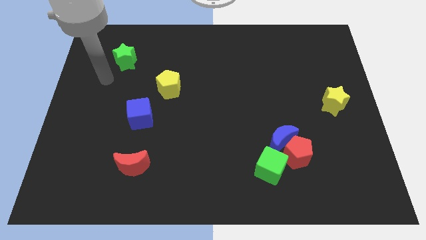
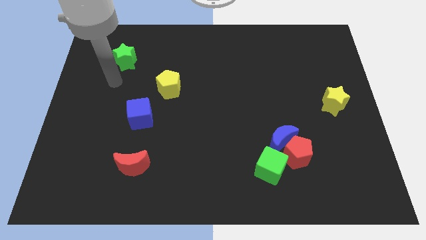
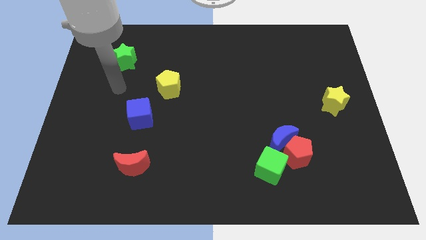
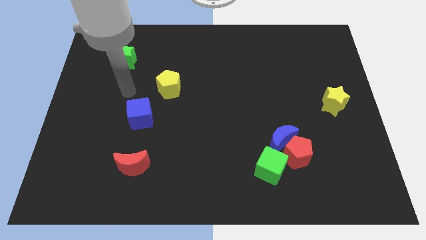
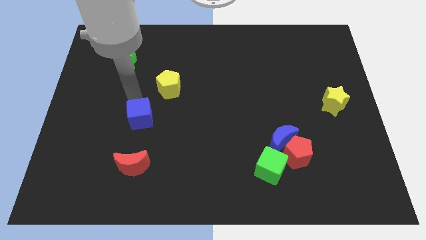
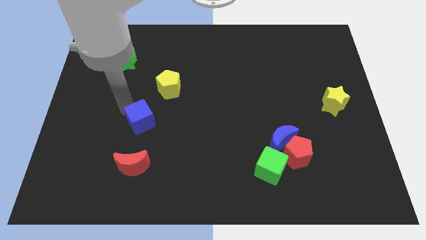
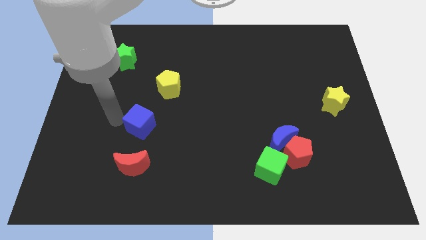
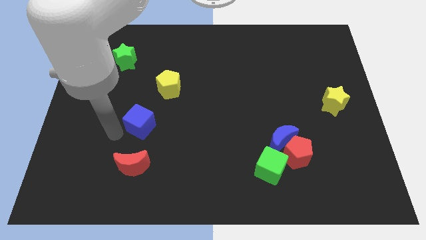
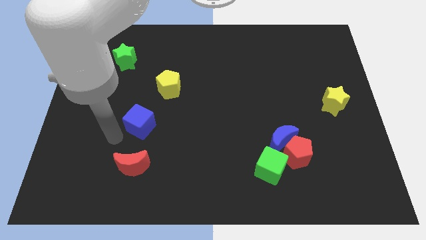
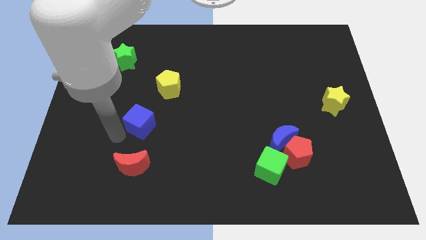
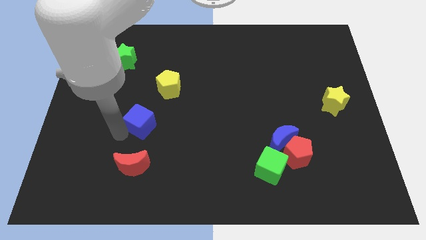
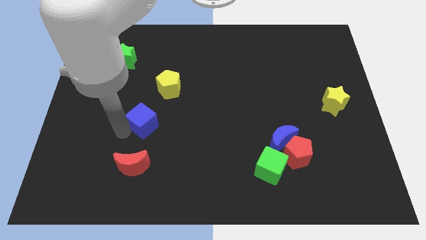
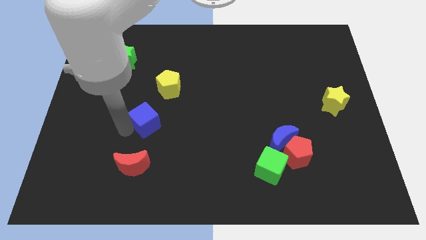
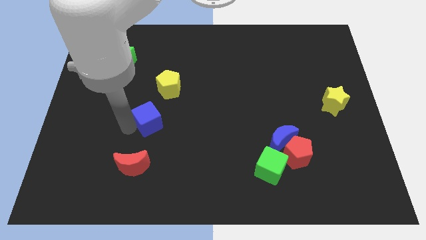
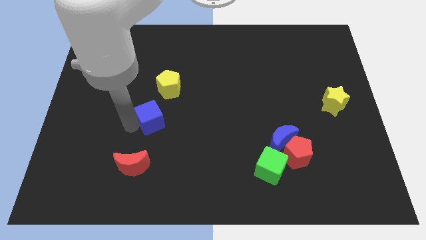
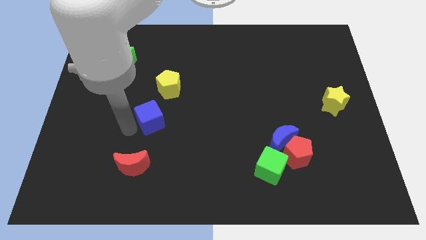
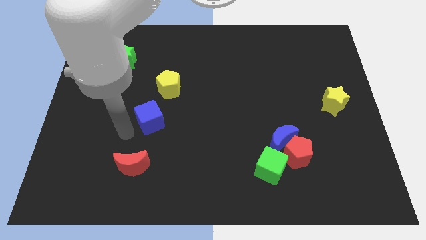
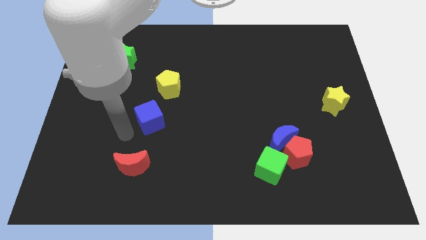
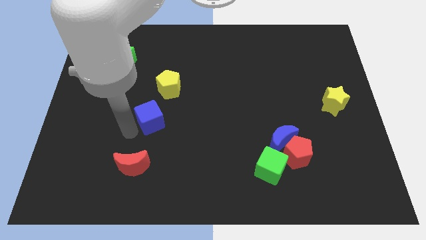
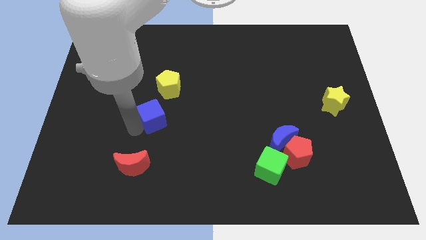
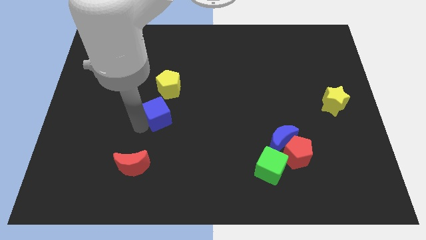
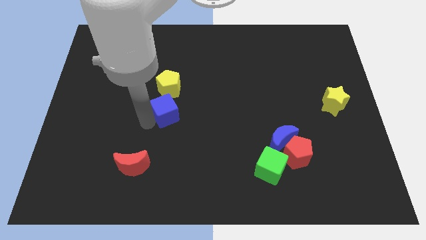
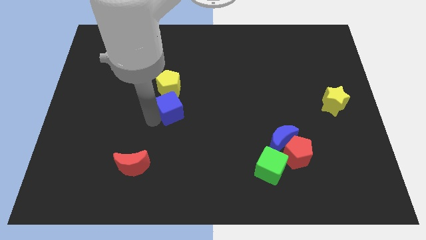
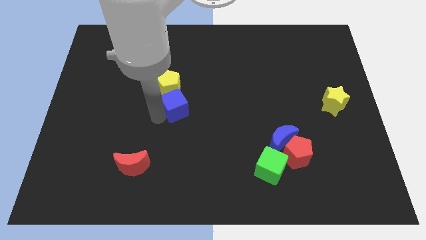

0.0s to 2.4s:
move the blue cube a little up and to the right diagonally

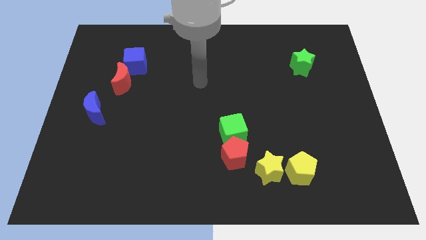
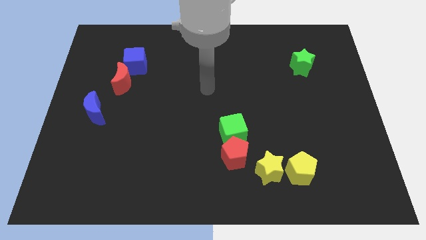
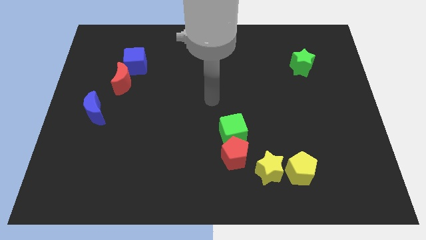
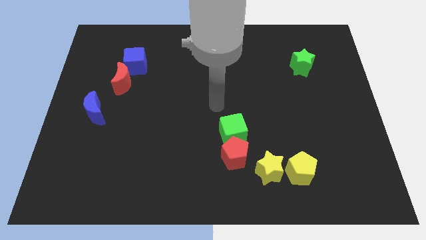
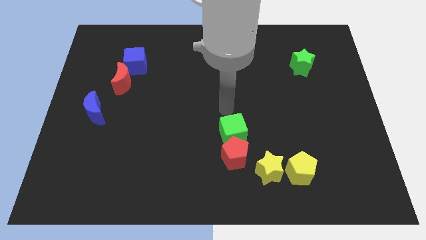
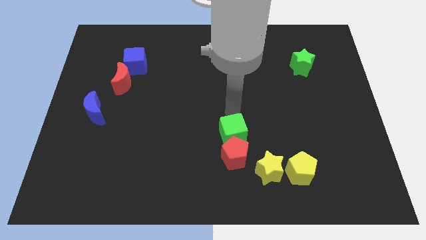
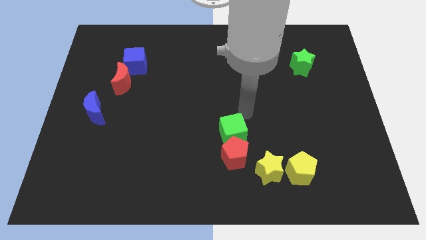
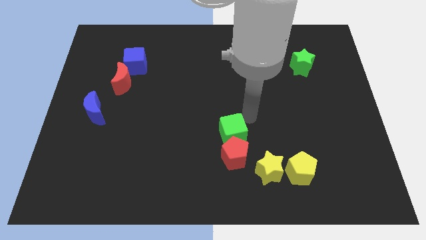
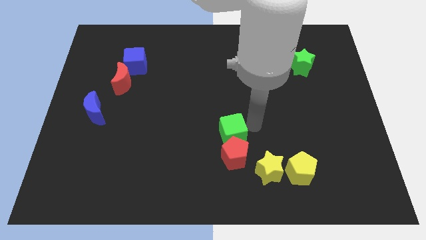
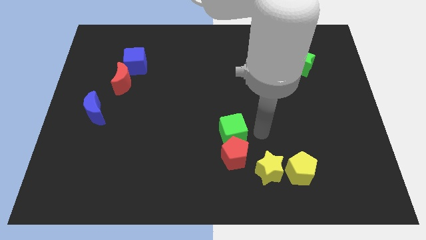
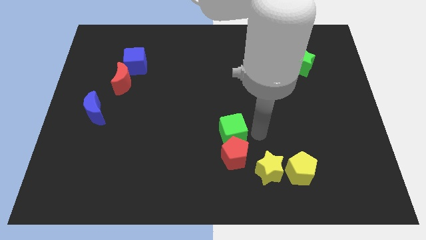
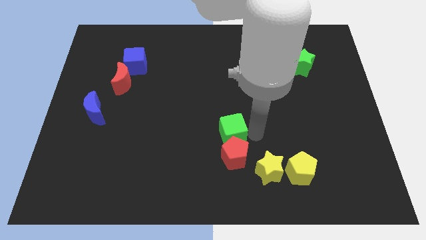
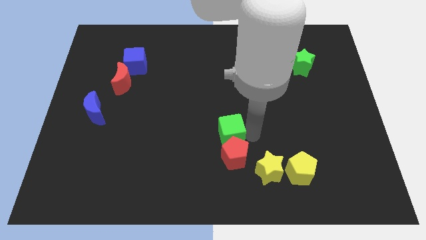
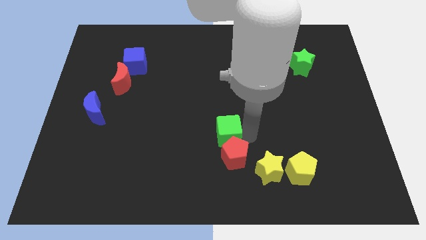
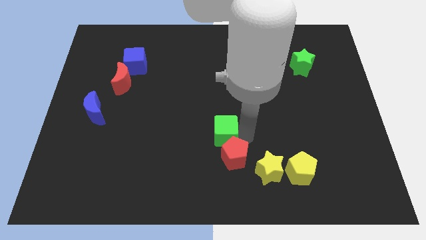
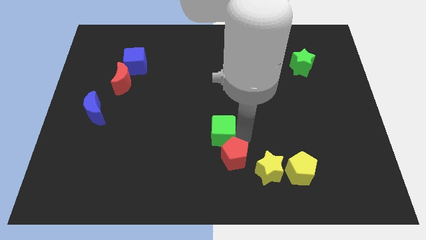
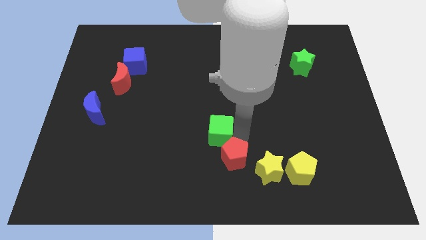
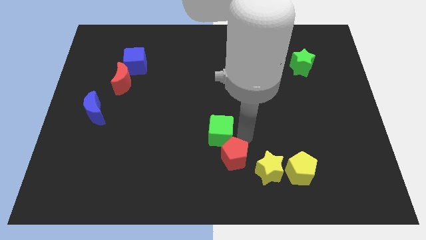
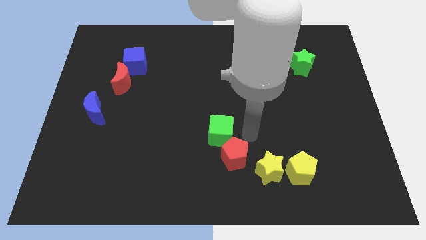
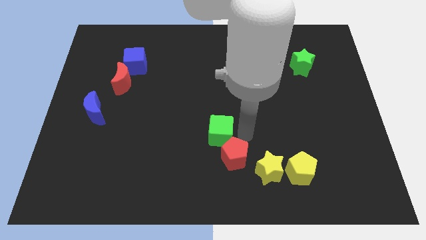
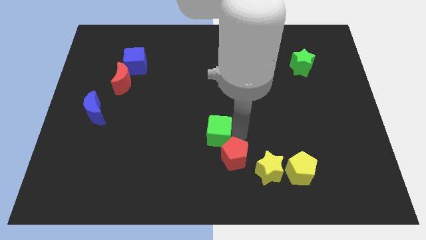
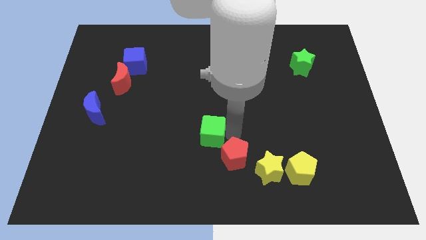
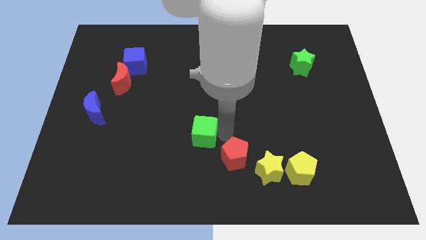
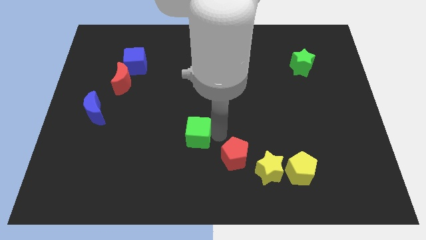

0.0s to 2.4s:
move the green cube left slightly

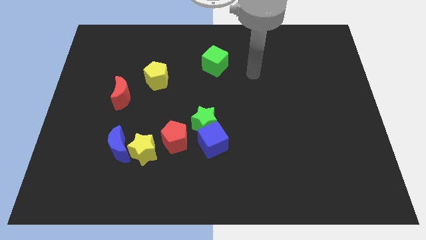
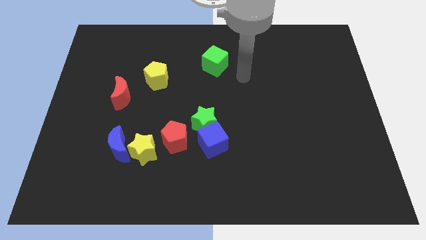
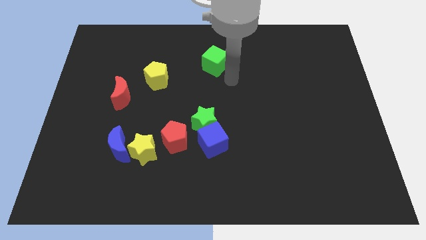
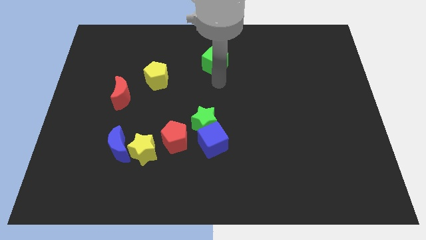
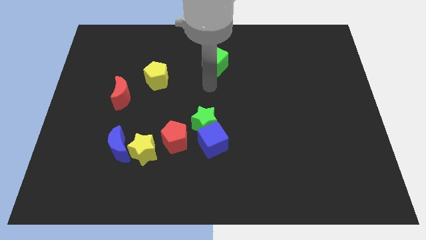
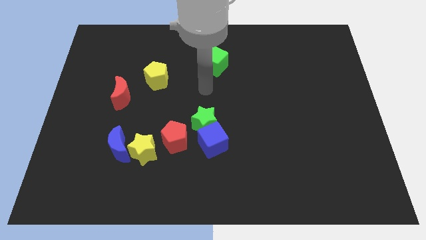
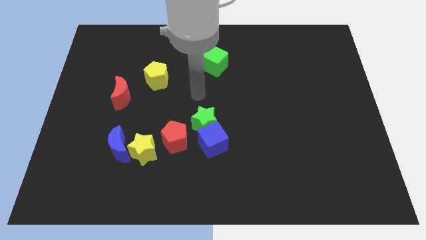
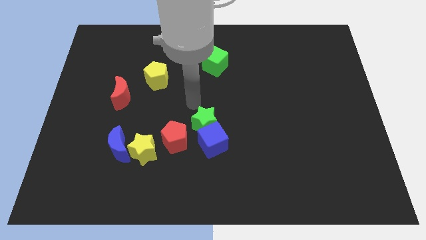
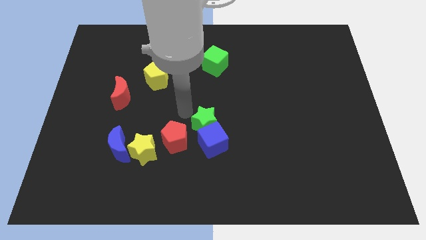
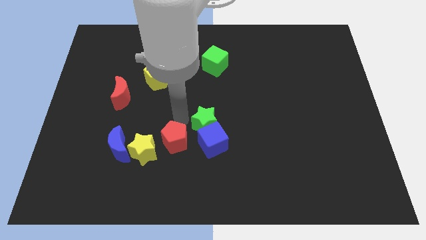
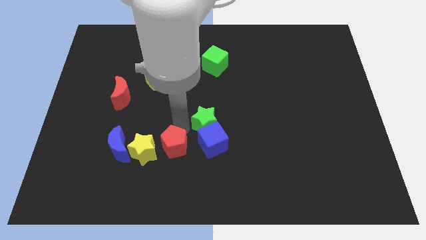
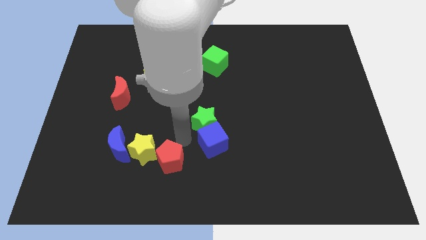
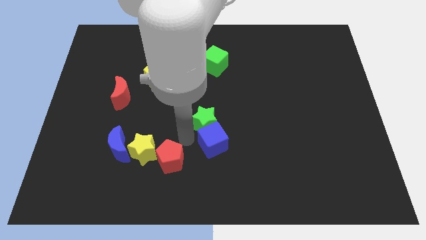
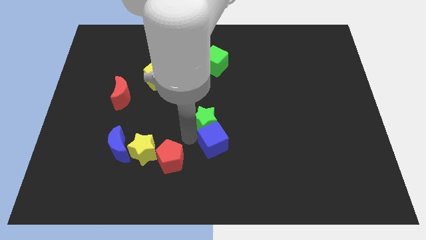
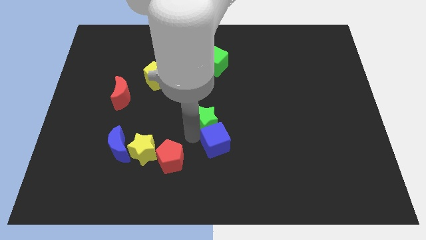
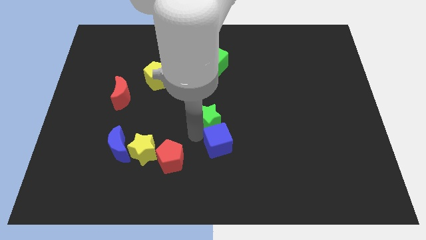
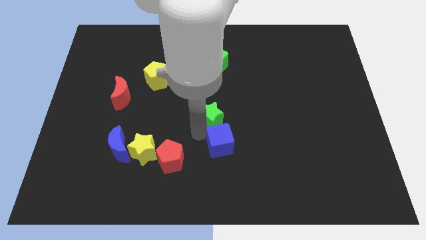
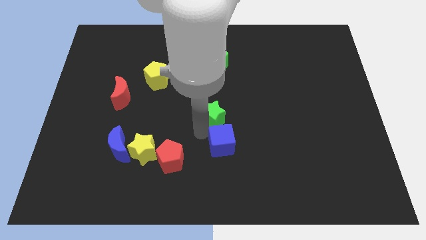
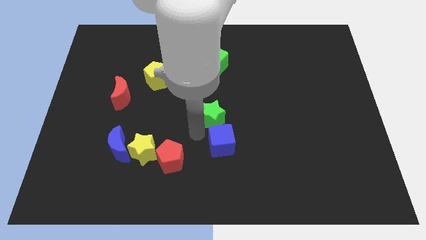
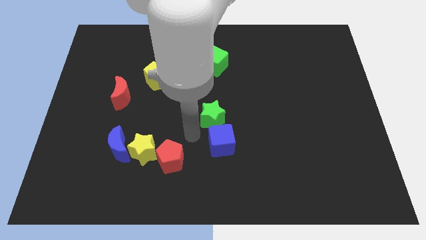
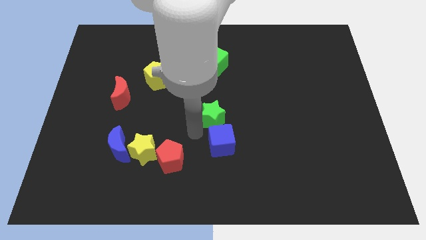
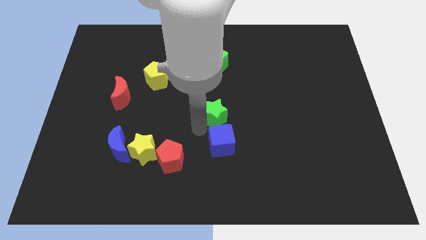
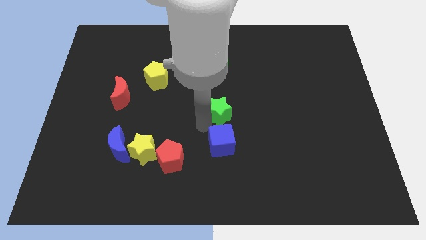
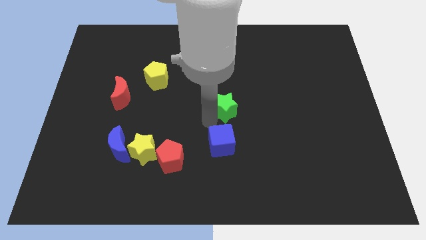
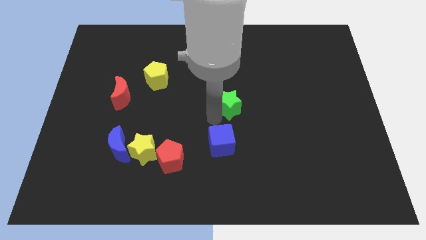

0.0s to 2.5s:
slide the green star a bit up and to the right diagonally

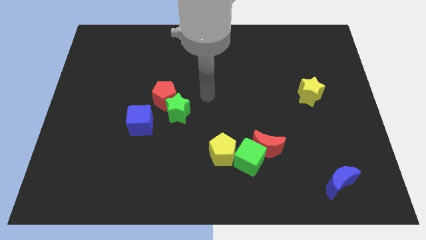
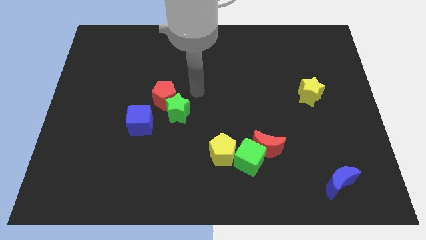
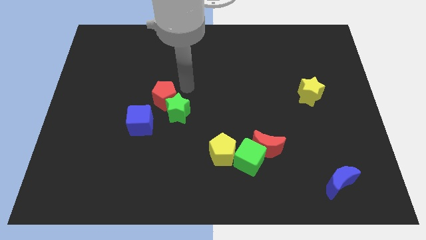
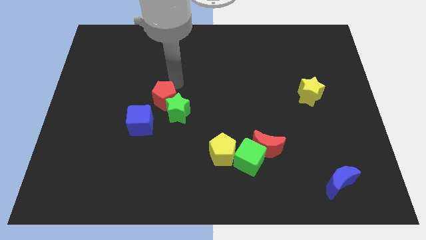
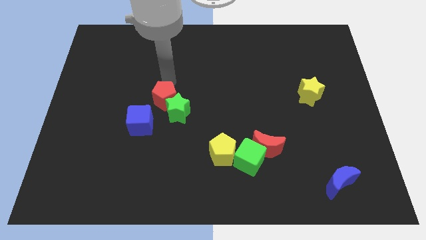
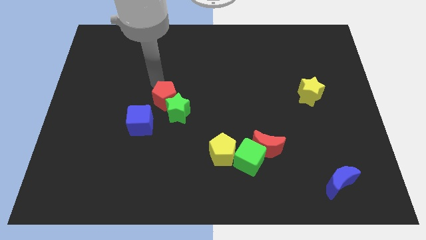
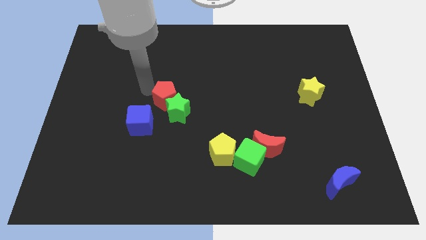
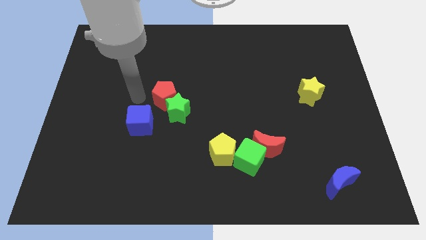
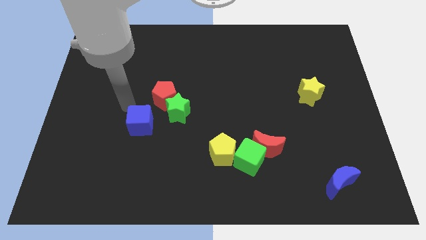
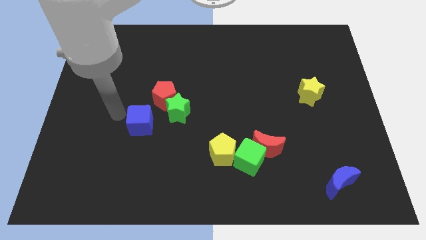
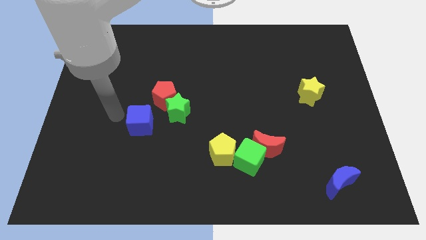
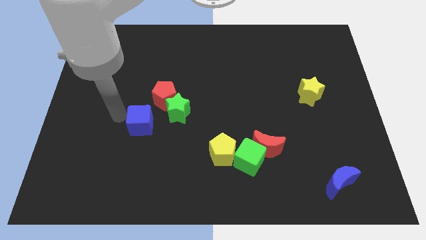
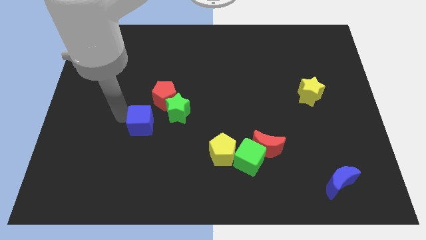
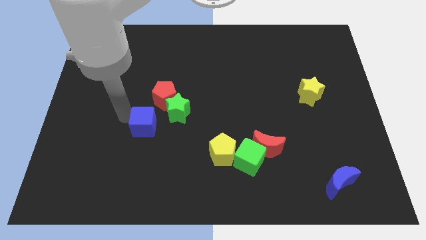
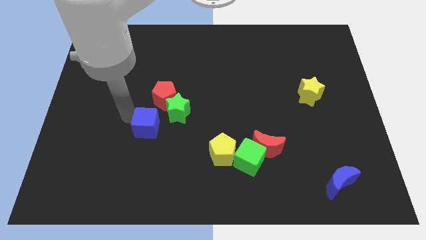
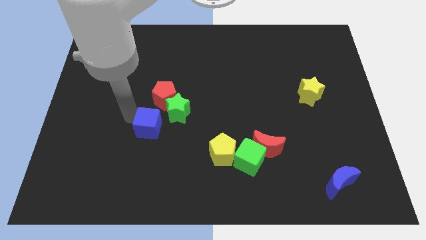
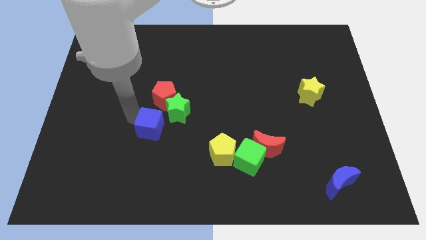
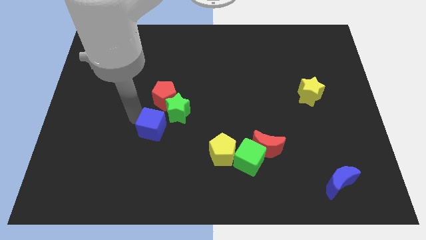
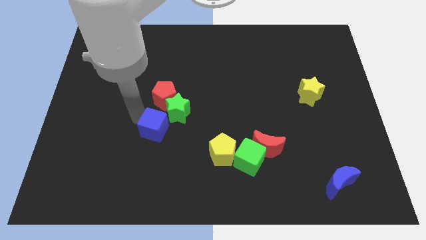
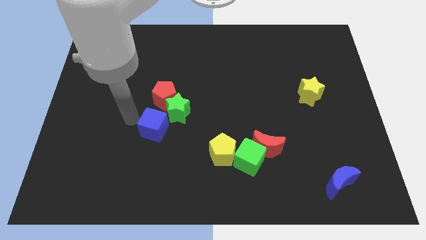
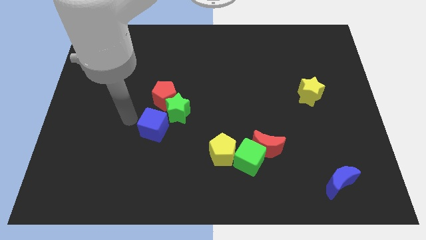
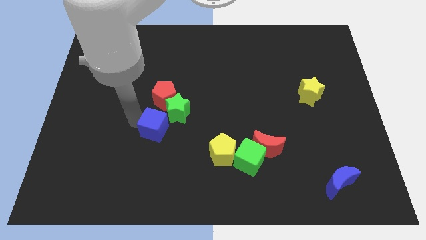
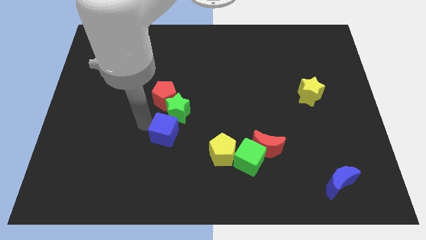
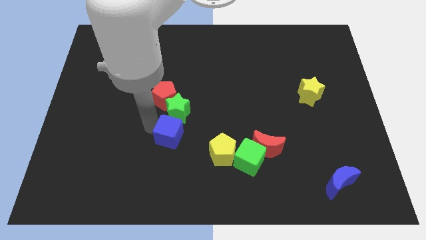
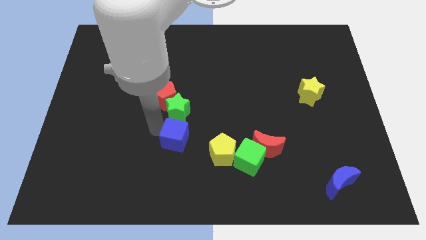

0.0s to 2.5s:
push the blue cube right slightly
